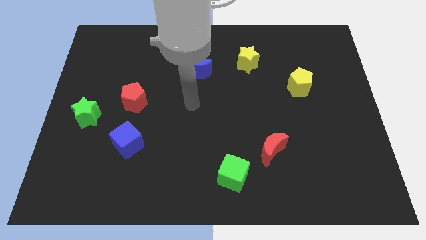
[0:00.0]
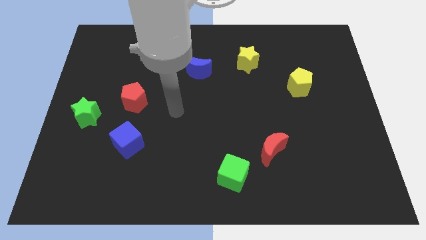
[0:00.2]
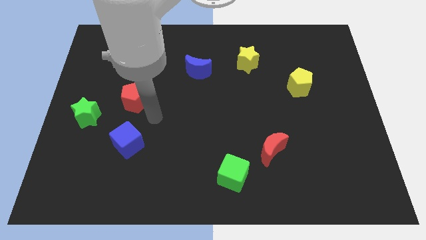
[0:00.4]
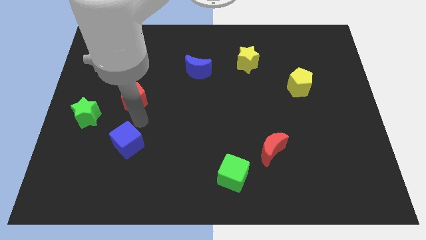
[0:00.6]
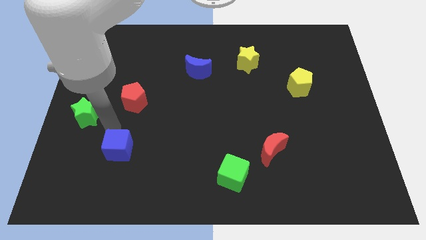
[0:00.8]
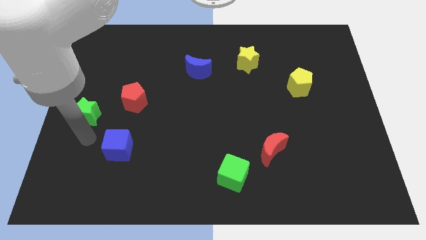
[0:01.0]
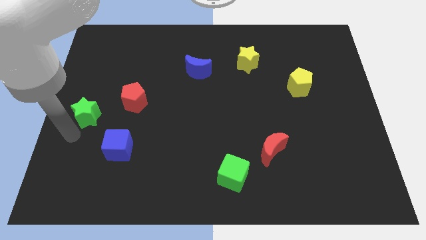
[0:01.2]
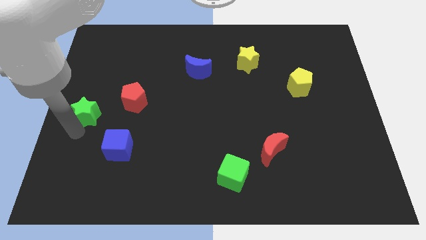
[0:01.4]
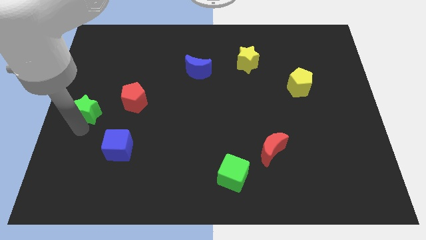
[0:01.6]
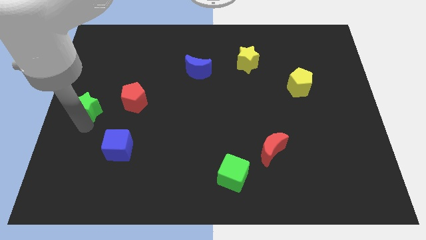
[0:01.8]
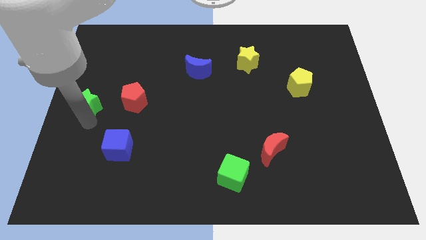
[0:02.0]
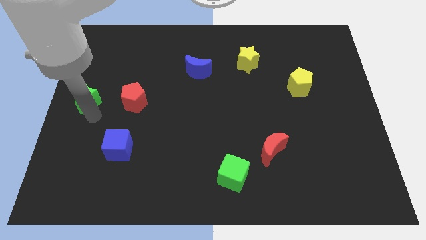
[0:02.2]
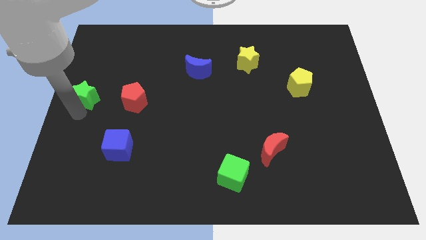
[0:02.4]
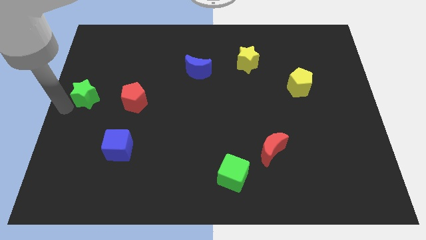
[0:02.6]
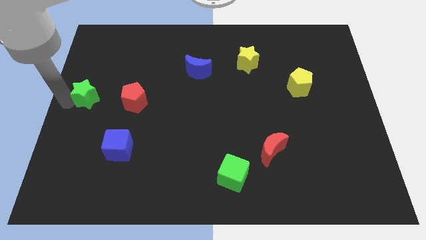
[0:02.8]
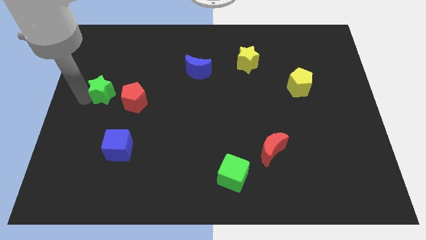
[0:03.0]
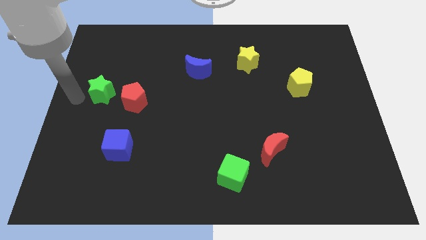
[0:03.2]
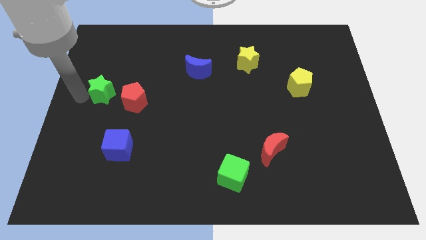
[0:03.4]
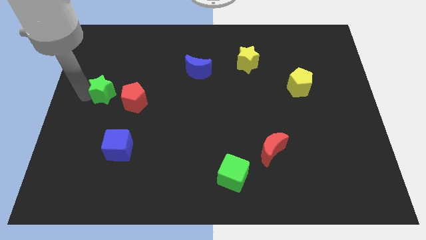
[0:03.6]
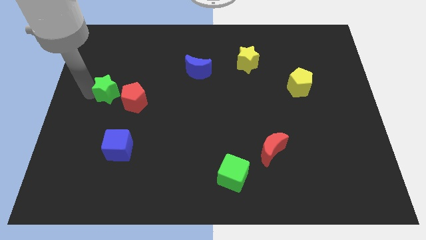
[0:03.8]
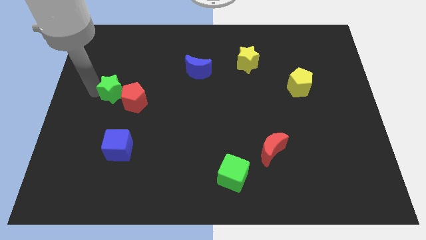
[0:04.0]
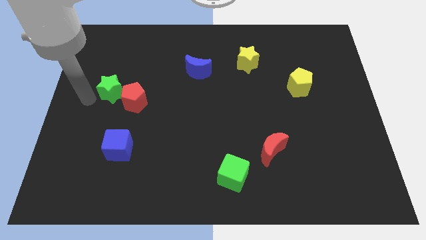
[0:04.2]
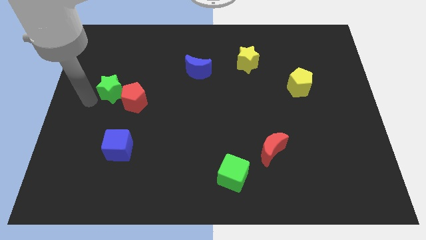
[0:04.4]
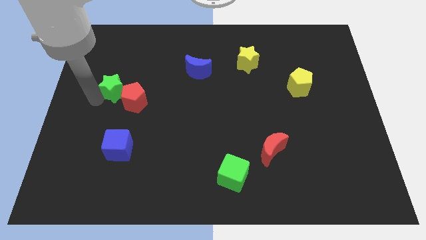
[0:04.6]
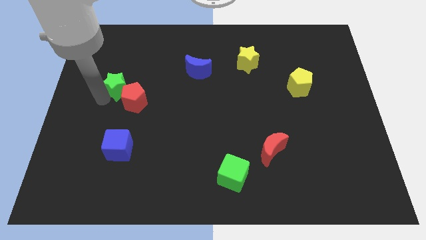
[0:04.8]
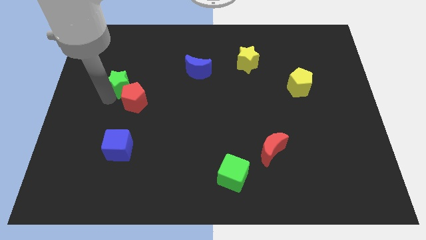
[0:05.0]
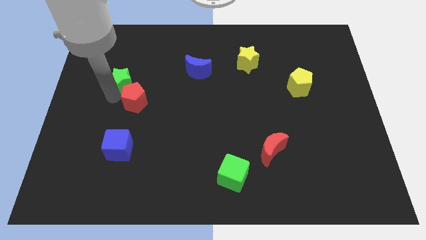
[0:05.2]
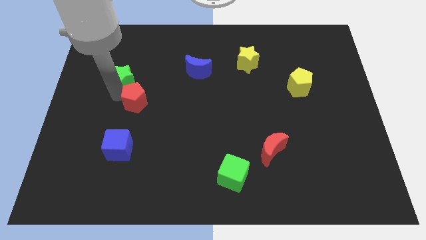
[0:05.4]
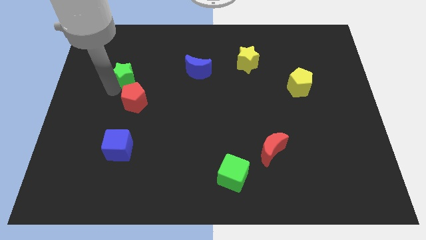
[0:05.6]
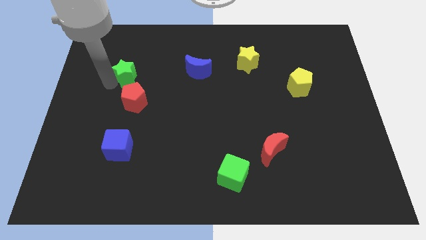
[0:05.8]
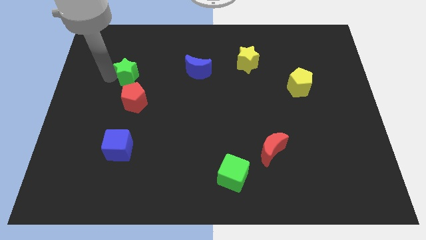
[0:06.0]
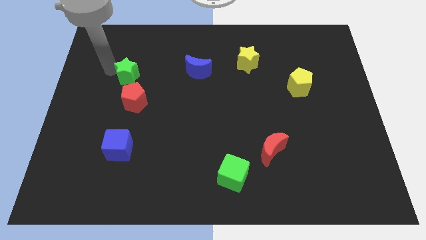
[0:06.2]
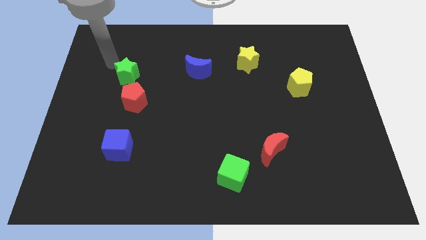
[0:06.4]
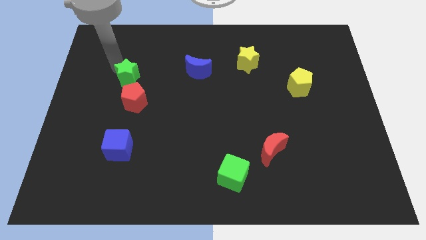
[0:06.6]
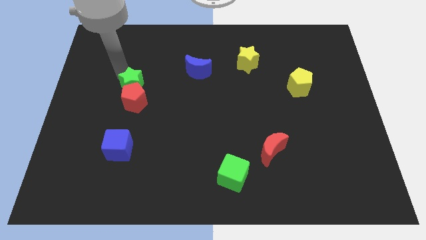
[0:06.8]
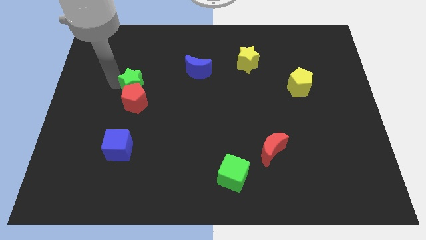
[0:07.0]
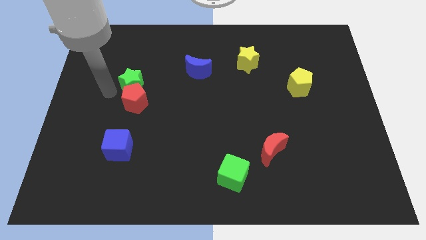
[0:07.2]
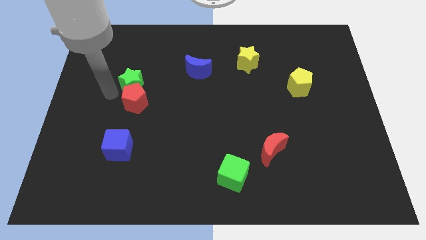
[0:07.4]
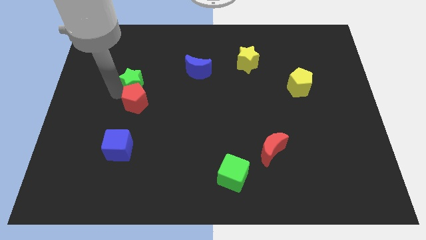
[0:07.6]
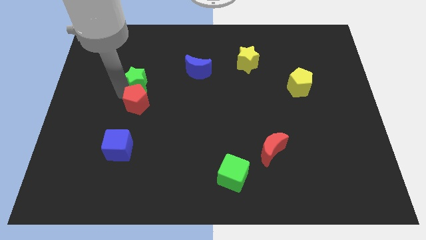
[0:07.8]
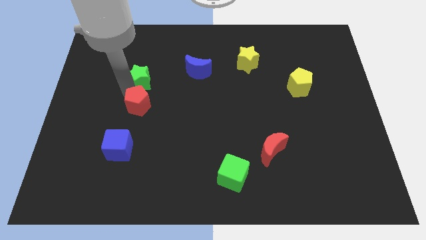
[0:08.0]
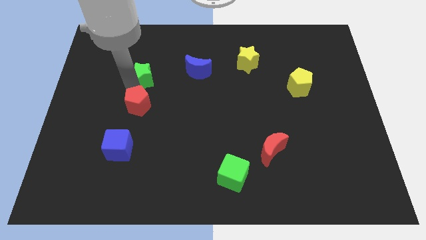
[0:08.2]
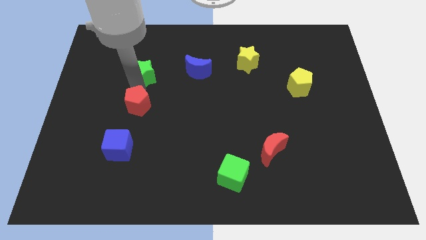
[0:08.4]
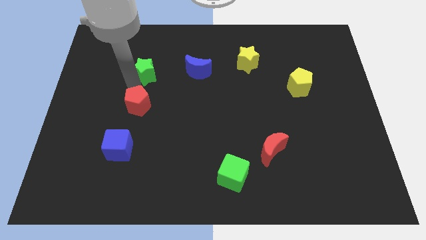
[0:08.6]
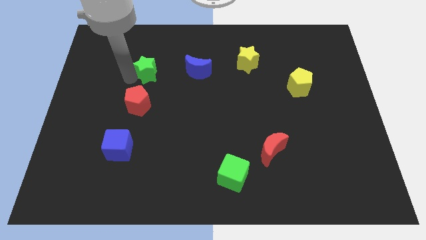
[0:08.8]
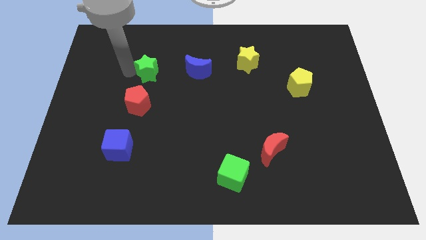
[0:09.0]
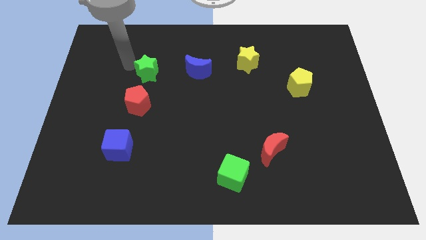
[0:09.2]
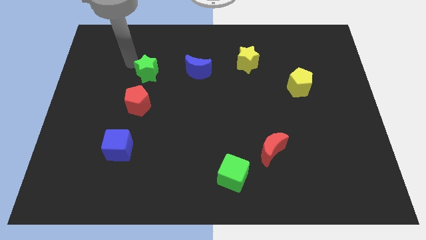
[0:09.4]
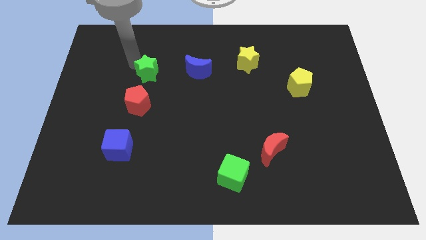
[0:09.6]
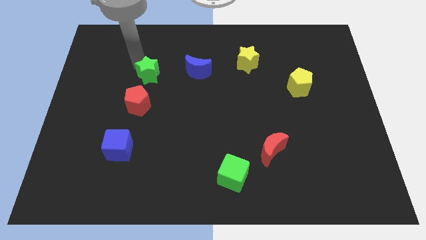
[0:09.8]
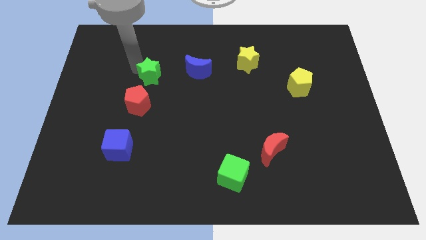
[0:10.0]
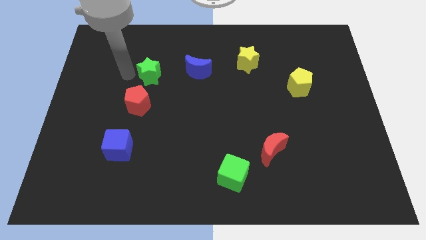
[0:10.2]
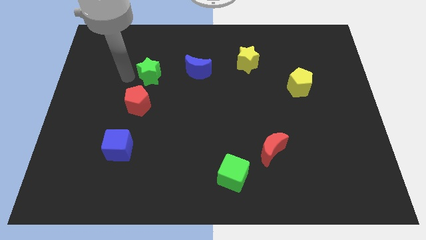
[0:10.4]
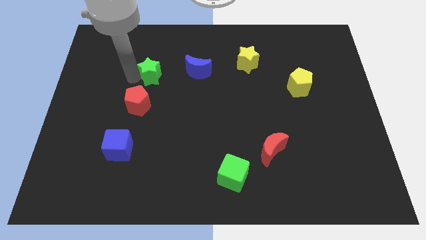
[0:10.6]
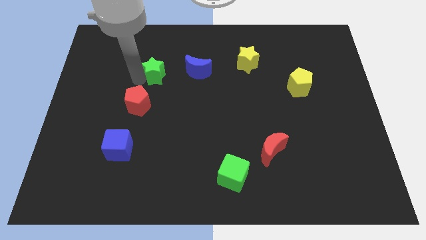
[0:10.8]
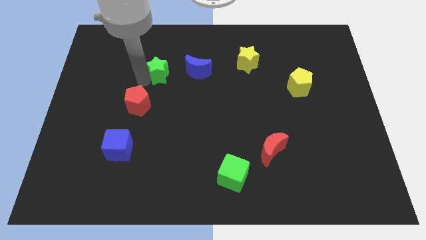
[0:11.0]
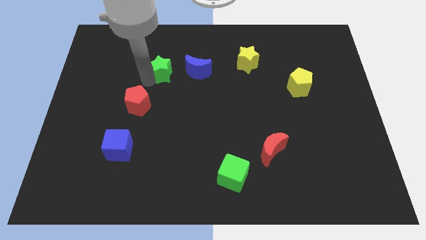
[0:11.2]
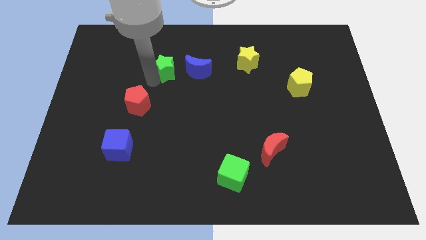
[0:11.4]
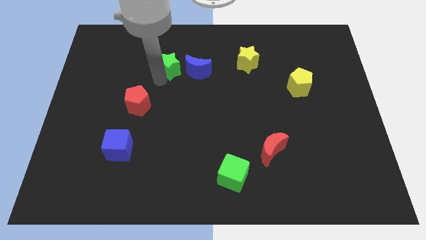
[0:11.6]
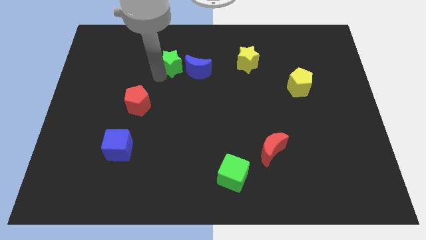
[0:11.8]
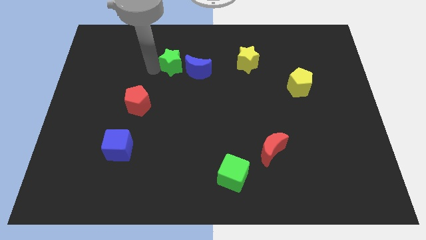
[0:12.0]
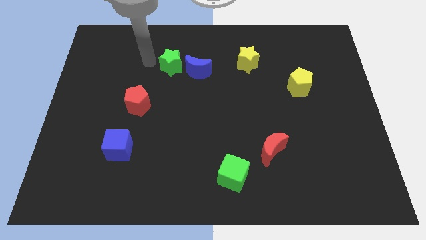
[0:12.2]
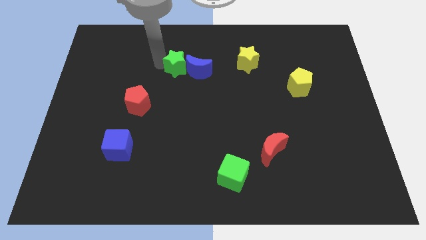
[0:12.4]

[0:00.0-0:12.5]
slide the green star close to the blue moon

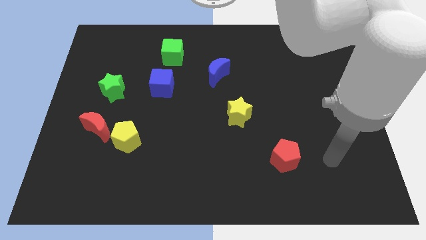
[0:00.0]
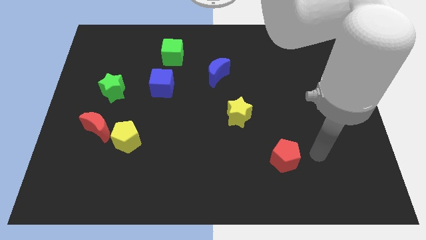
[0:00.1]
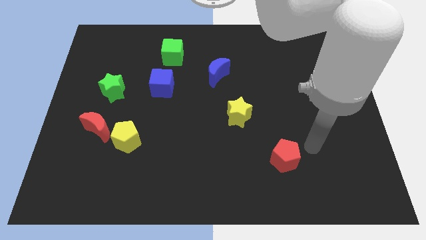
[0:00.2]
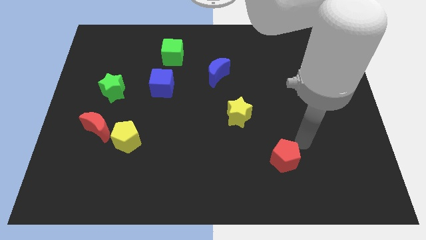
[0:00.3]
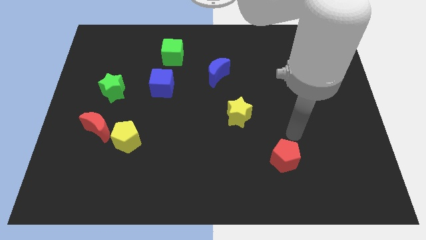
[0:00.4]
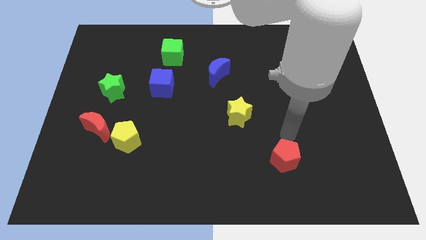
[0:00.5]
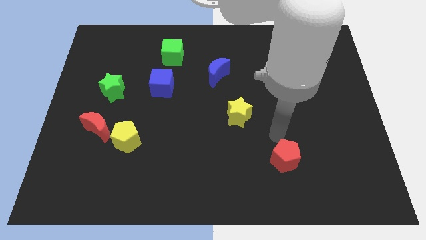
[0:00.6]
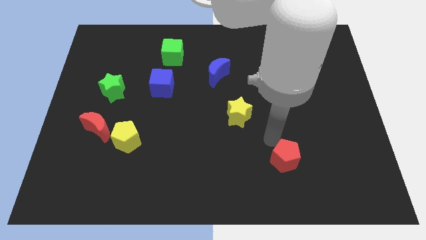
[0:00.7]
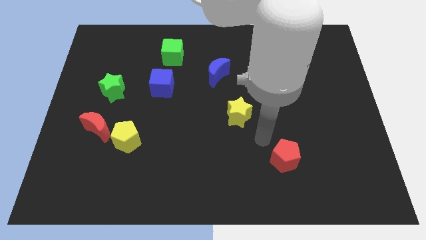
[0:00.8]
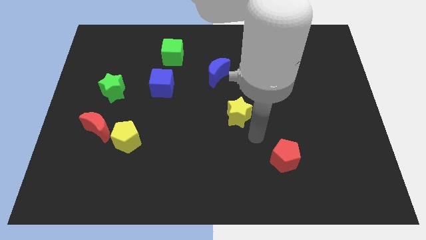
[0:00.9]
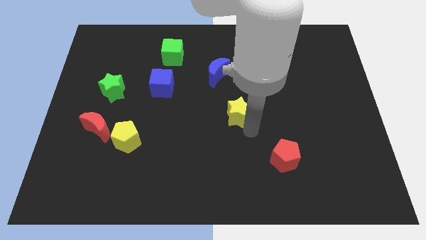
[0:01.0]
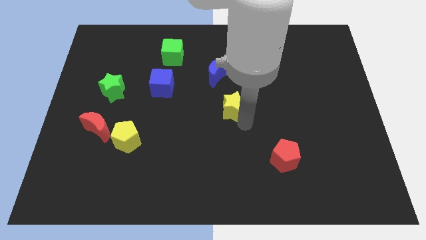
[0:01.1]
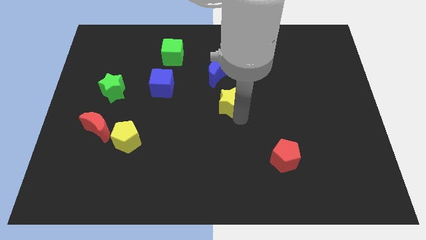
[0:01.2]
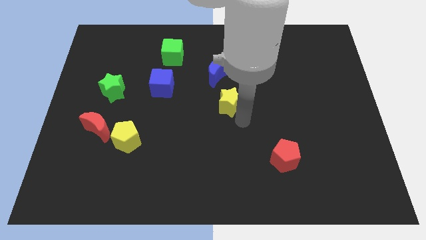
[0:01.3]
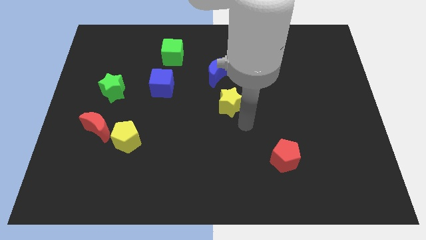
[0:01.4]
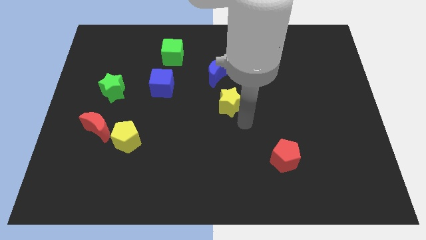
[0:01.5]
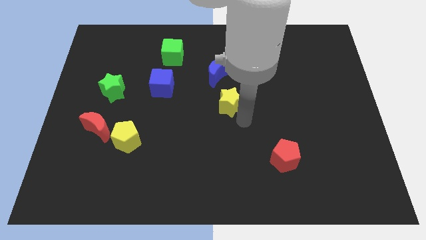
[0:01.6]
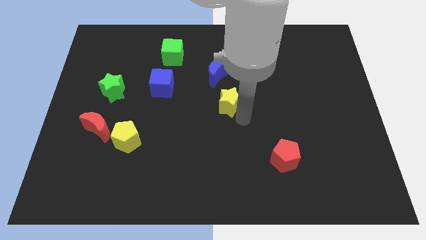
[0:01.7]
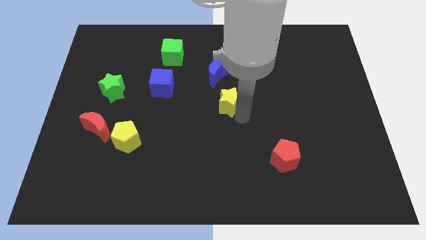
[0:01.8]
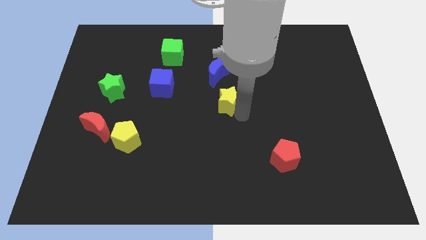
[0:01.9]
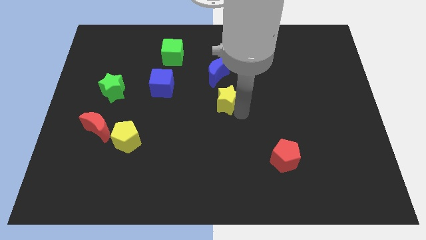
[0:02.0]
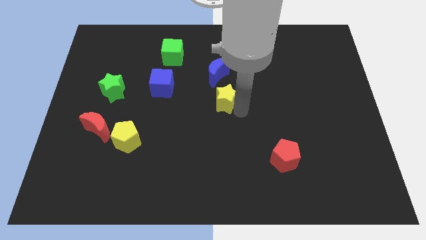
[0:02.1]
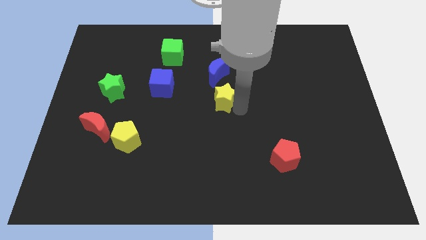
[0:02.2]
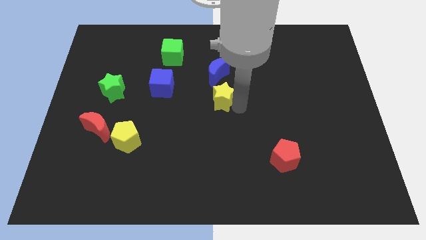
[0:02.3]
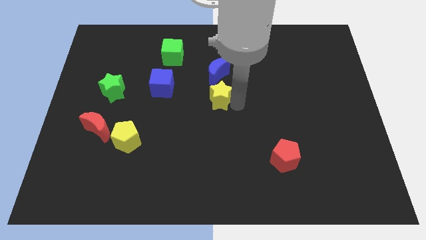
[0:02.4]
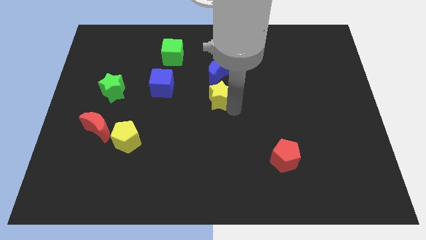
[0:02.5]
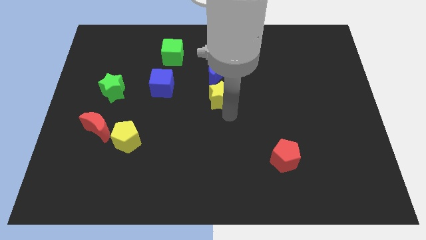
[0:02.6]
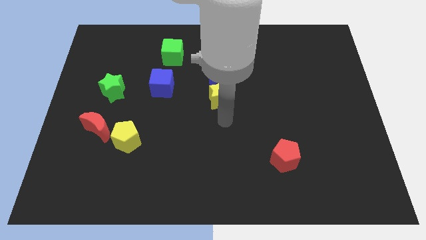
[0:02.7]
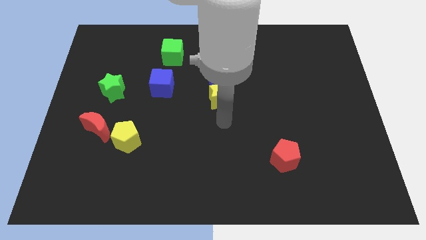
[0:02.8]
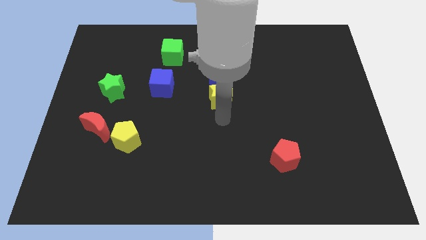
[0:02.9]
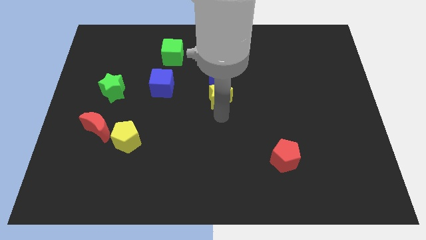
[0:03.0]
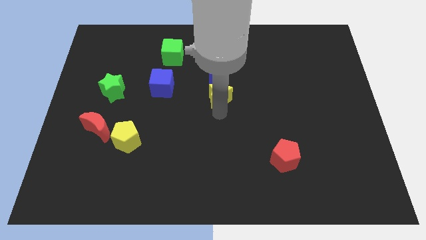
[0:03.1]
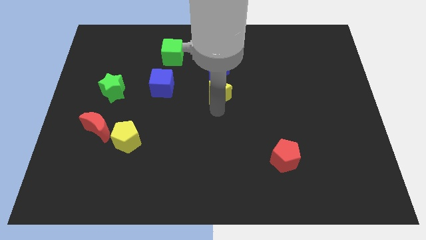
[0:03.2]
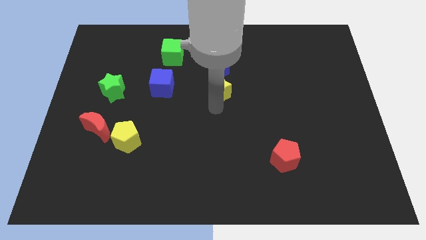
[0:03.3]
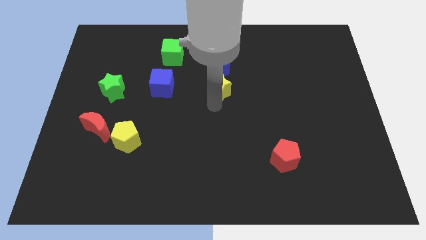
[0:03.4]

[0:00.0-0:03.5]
move the yellow star close to the blue moon
